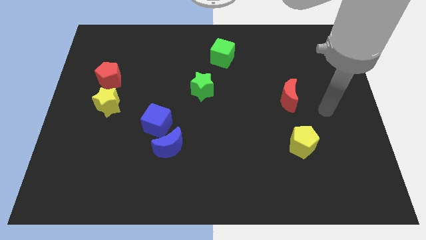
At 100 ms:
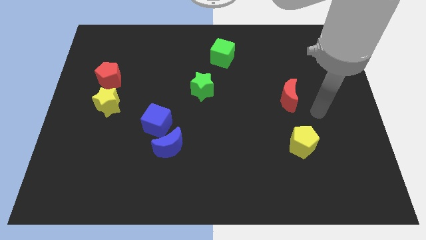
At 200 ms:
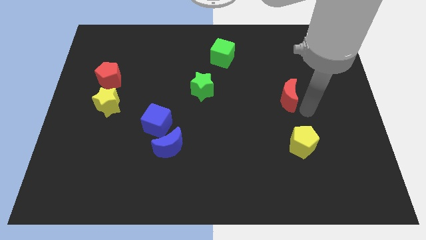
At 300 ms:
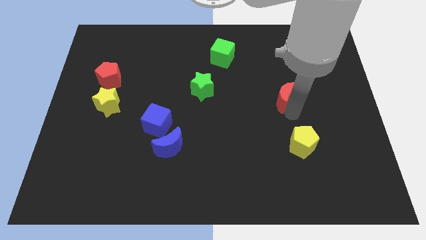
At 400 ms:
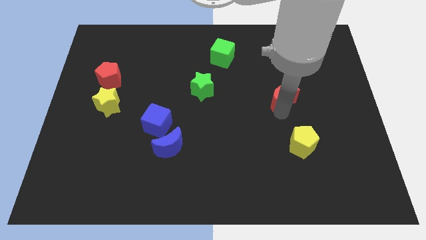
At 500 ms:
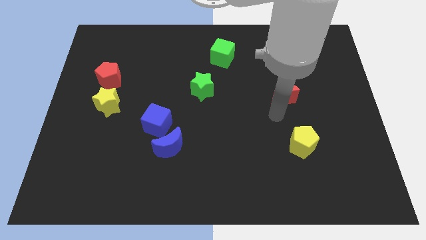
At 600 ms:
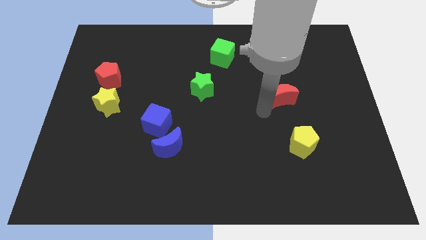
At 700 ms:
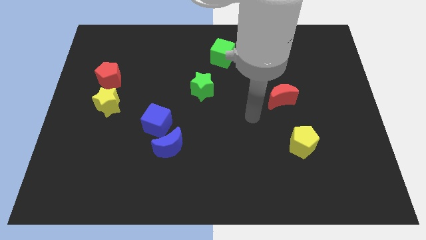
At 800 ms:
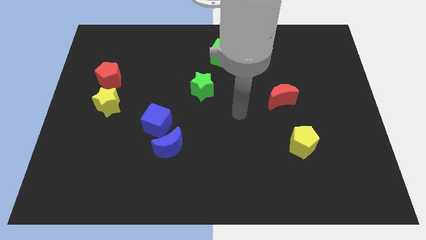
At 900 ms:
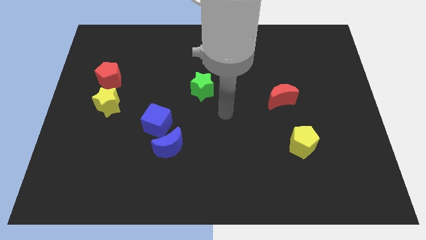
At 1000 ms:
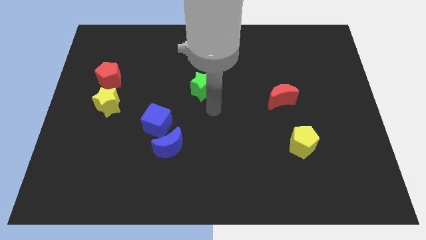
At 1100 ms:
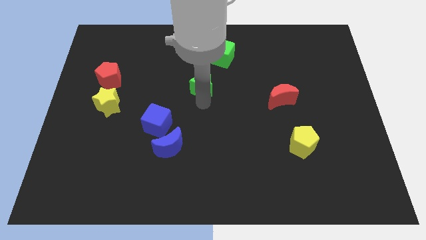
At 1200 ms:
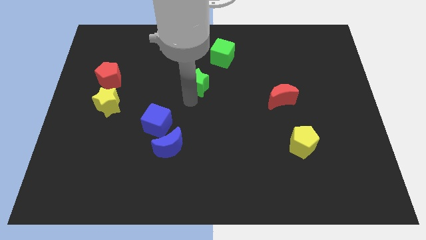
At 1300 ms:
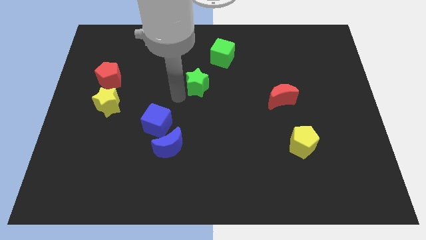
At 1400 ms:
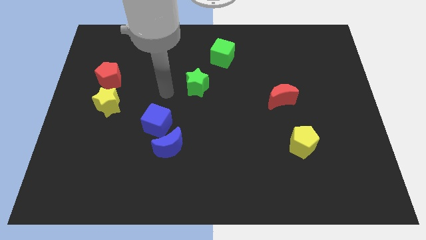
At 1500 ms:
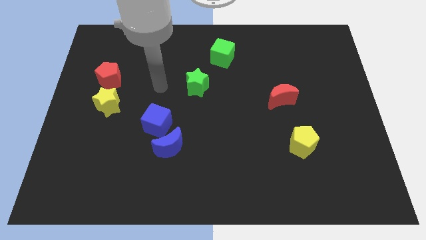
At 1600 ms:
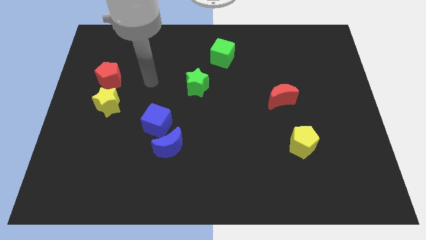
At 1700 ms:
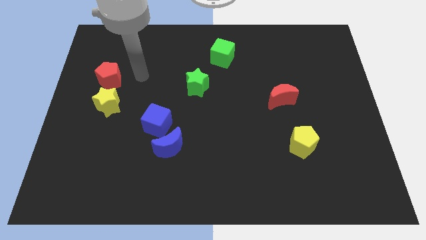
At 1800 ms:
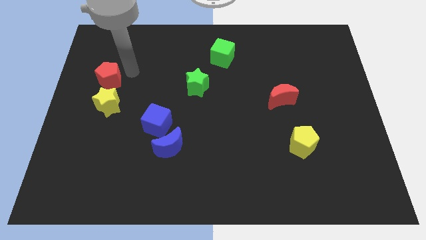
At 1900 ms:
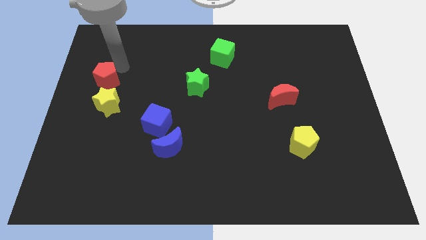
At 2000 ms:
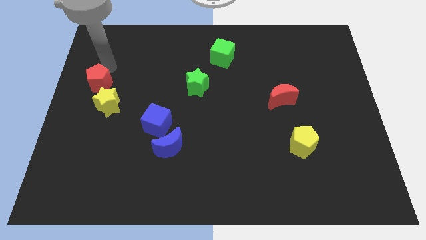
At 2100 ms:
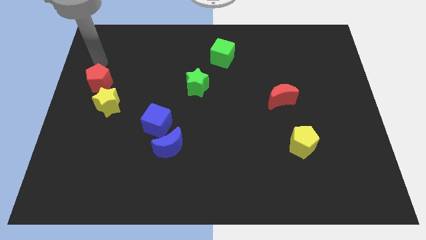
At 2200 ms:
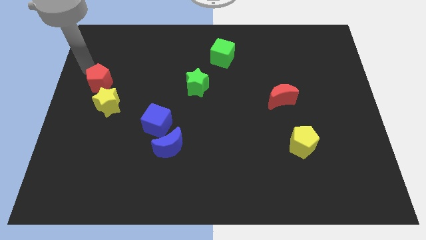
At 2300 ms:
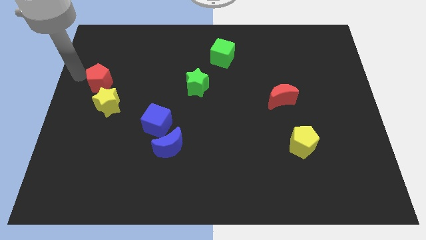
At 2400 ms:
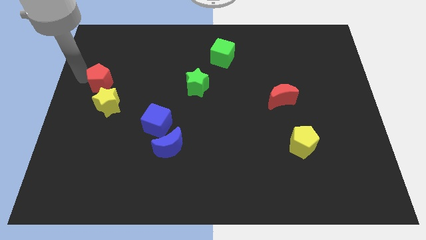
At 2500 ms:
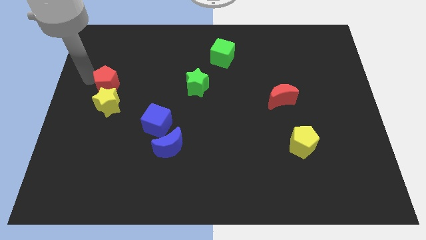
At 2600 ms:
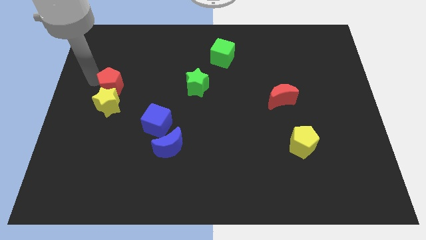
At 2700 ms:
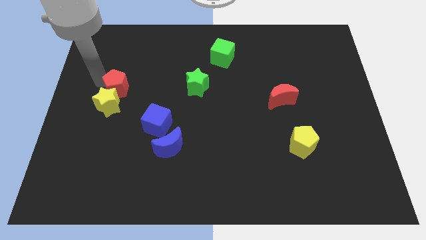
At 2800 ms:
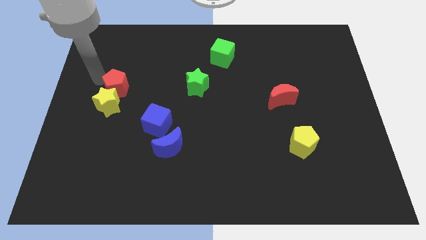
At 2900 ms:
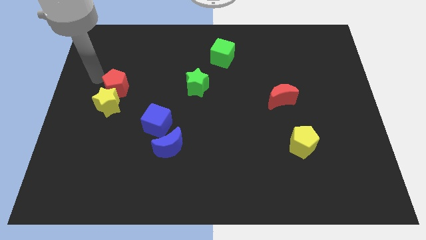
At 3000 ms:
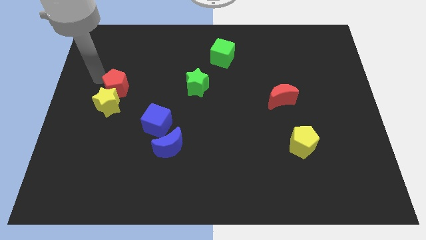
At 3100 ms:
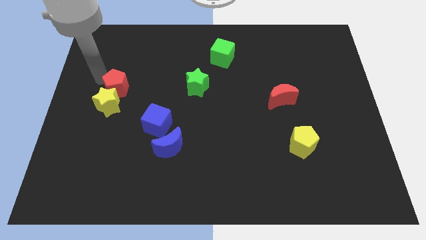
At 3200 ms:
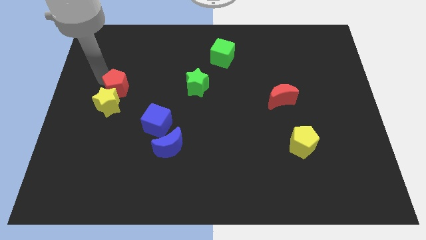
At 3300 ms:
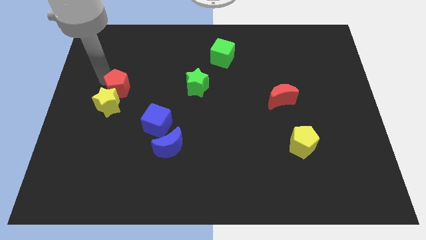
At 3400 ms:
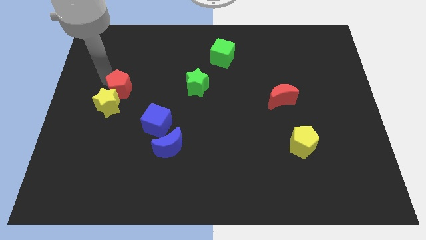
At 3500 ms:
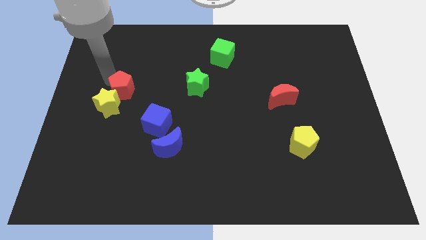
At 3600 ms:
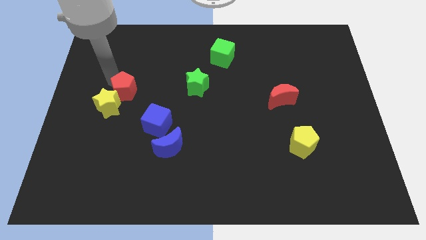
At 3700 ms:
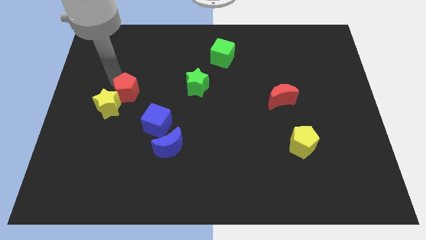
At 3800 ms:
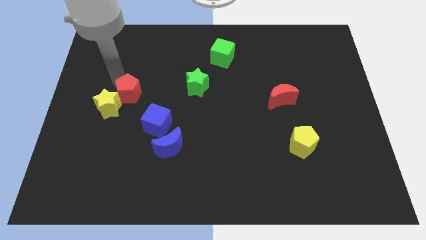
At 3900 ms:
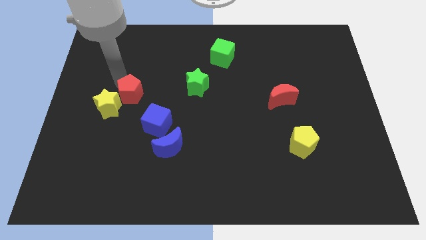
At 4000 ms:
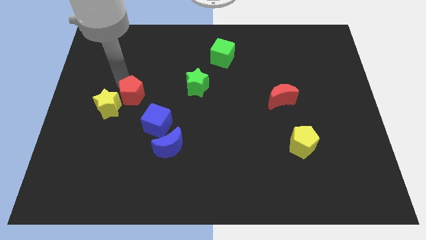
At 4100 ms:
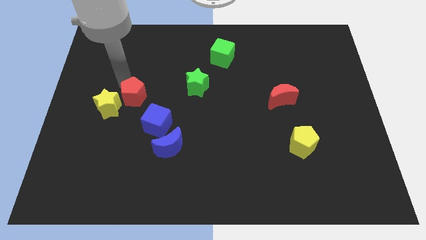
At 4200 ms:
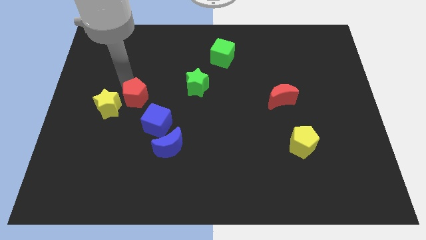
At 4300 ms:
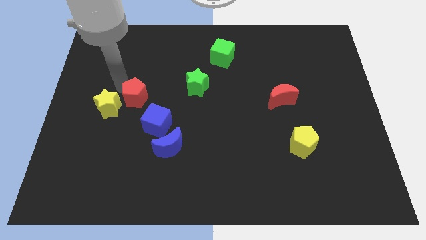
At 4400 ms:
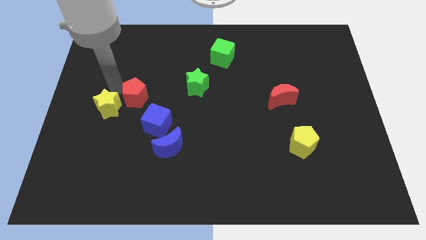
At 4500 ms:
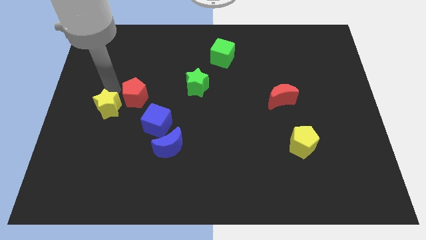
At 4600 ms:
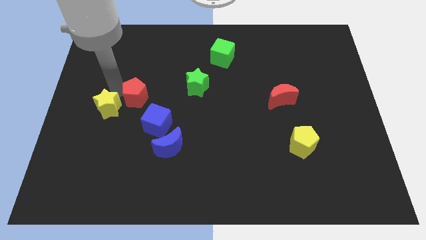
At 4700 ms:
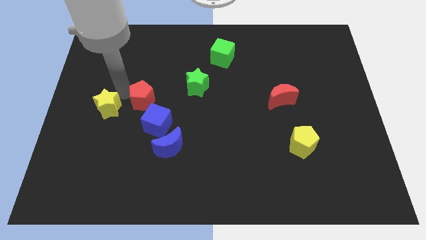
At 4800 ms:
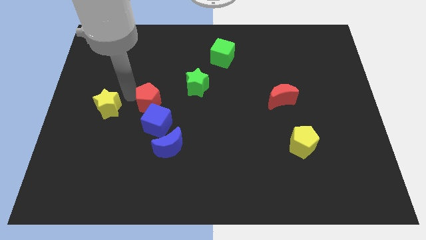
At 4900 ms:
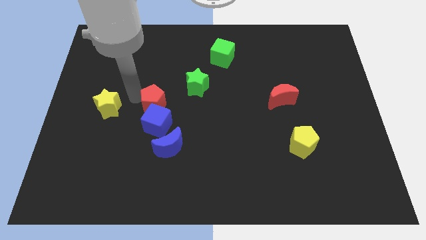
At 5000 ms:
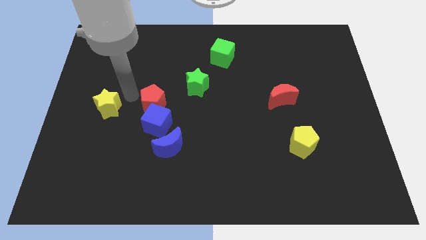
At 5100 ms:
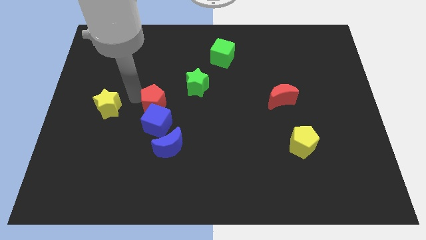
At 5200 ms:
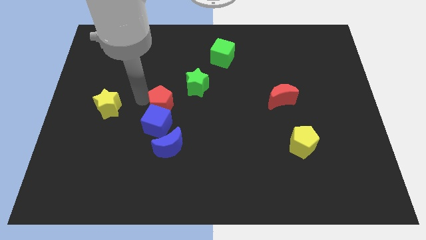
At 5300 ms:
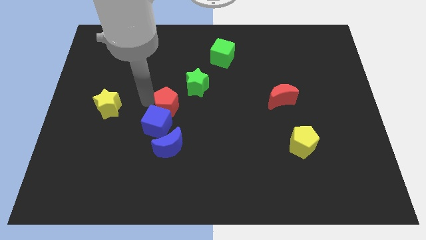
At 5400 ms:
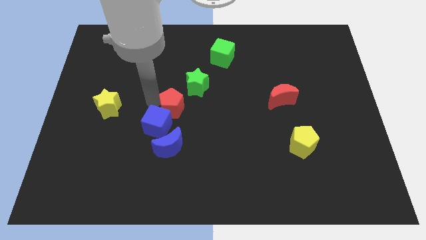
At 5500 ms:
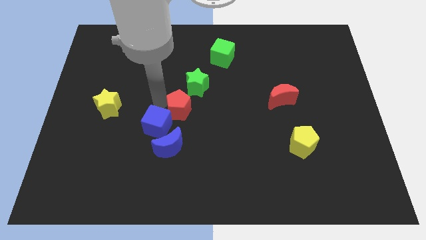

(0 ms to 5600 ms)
slide the red pentagon to the bottom side of the green star

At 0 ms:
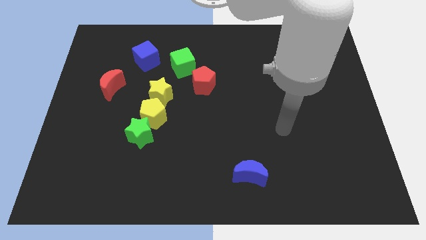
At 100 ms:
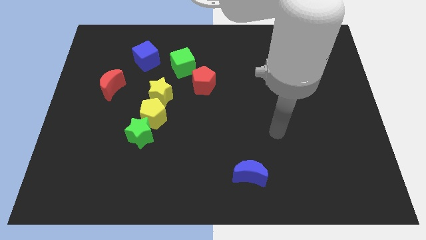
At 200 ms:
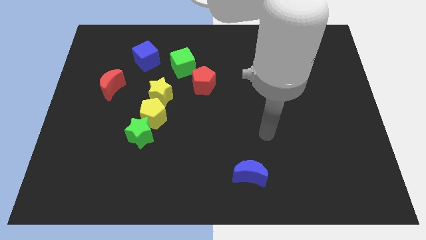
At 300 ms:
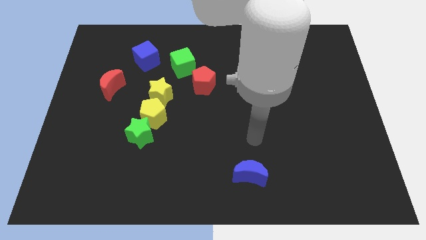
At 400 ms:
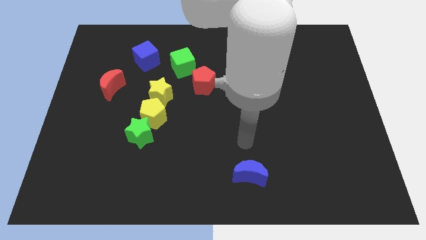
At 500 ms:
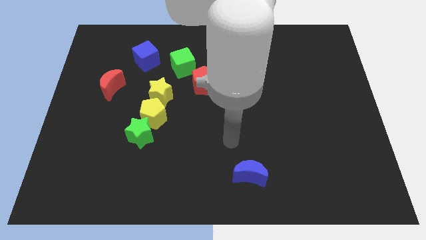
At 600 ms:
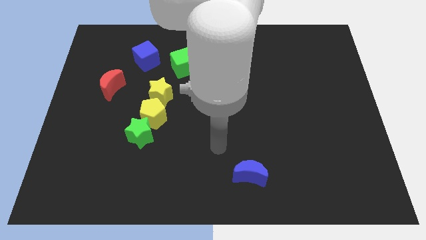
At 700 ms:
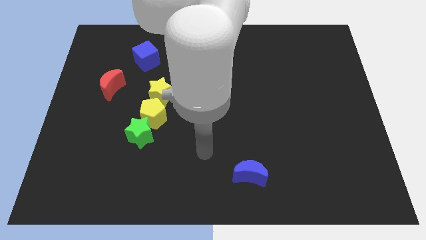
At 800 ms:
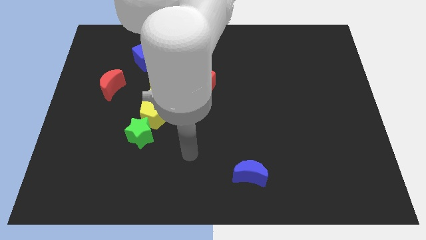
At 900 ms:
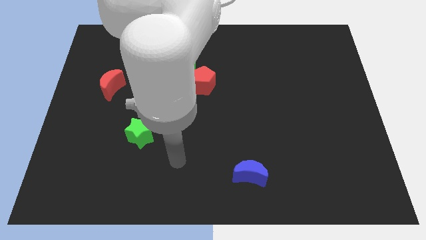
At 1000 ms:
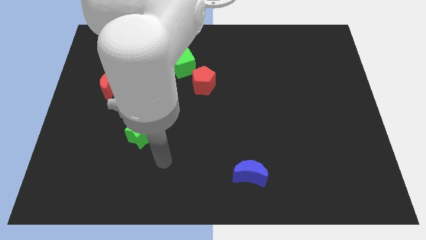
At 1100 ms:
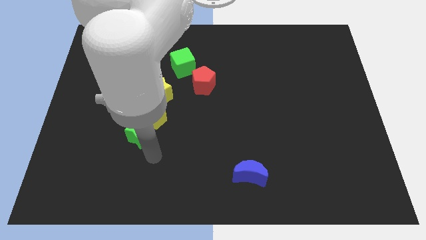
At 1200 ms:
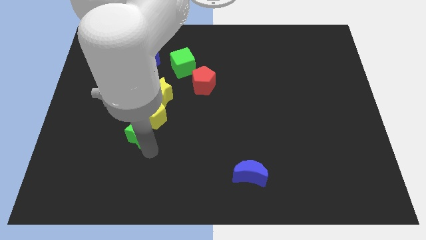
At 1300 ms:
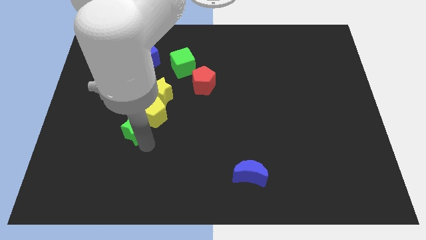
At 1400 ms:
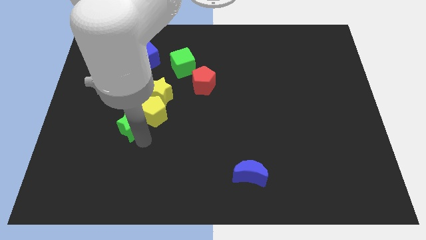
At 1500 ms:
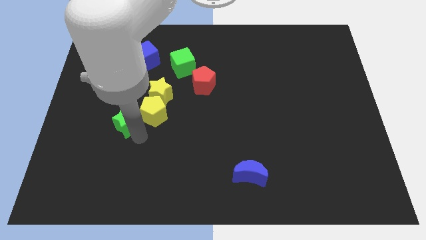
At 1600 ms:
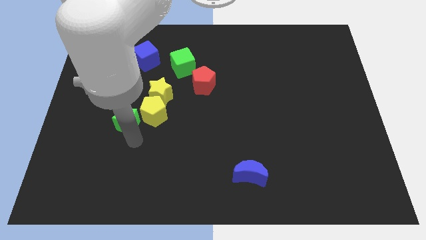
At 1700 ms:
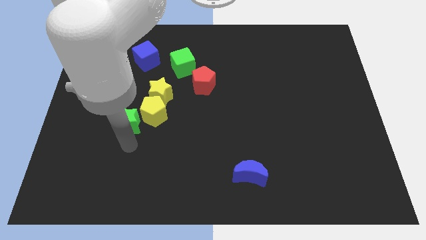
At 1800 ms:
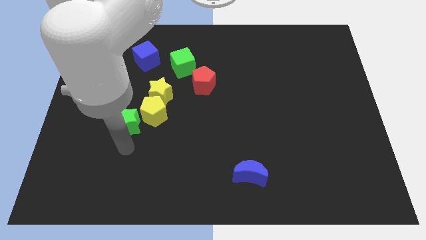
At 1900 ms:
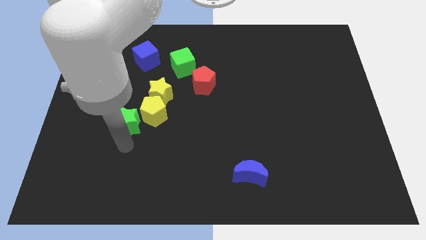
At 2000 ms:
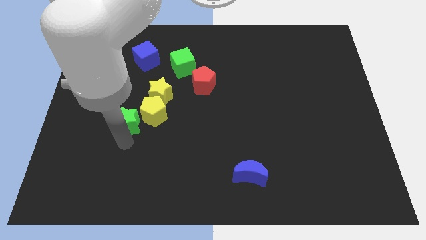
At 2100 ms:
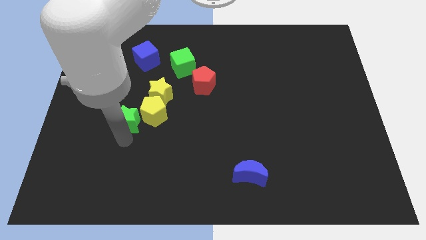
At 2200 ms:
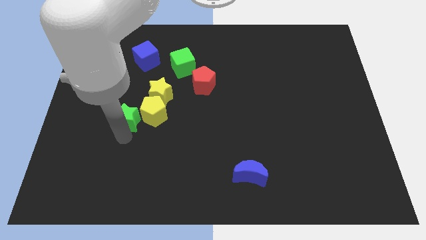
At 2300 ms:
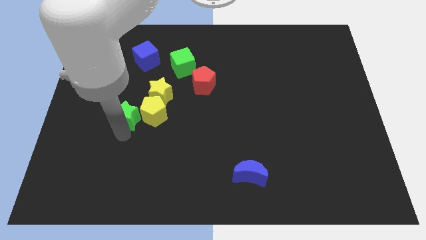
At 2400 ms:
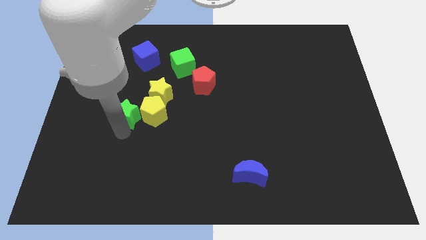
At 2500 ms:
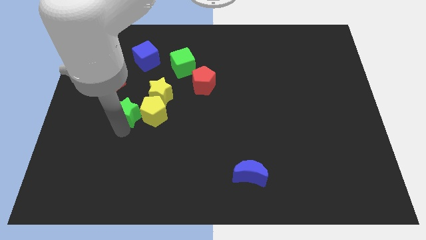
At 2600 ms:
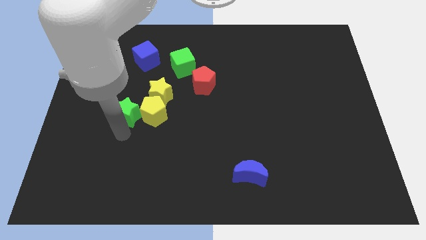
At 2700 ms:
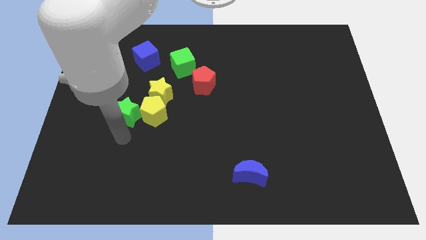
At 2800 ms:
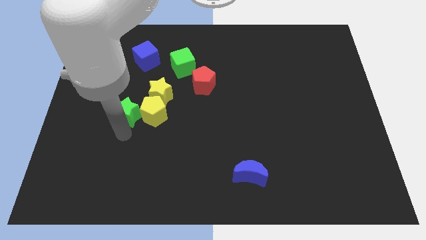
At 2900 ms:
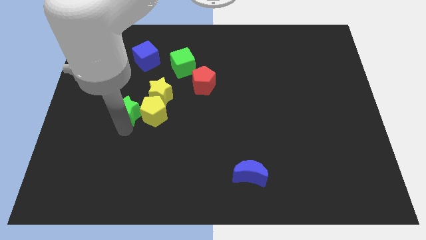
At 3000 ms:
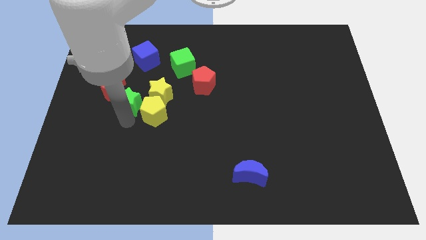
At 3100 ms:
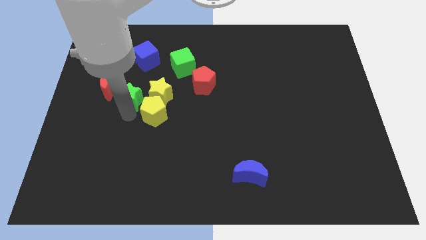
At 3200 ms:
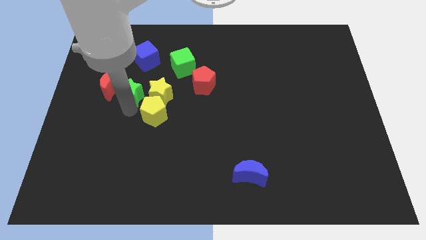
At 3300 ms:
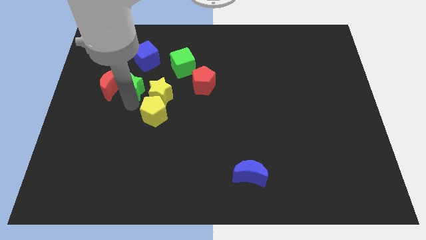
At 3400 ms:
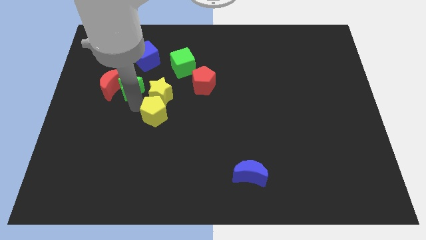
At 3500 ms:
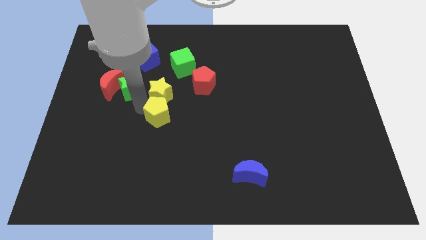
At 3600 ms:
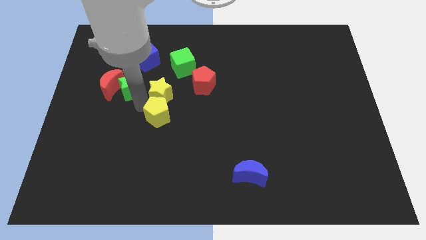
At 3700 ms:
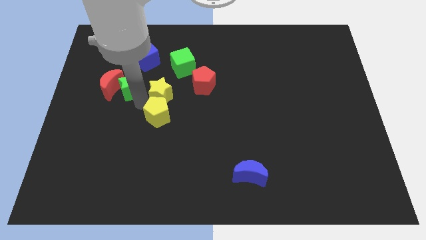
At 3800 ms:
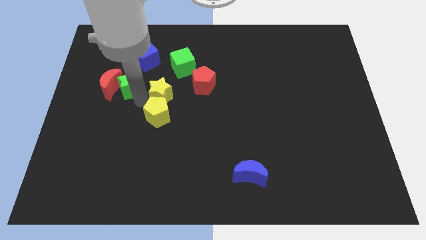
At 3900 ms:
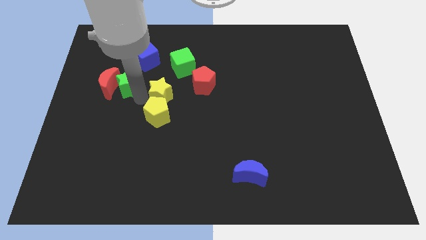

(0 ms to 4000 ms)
put the green star to the bottom left of the blue cube
